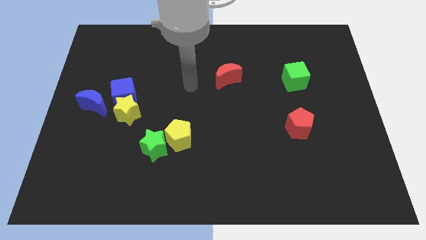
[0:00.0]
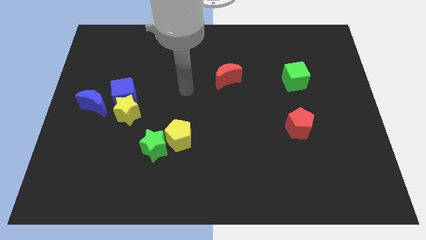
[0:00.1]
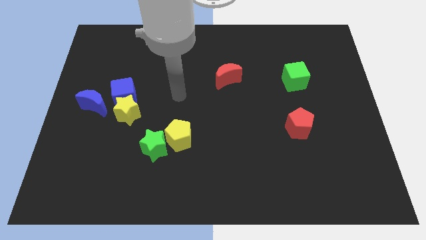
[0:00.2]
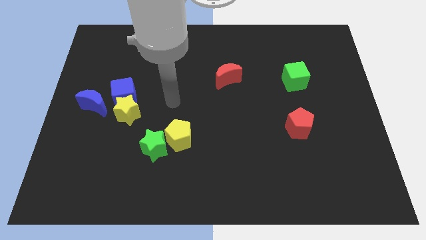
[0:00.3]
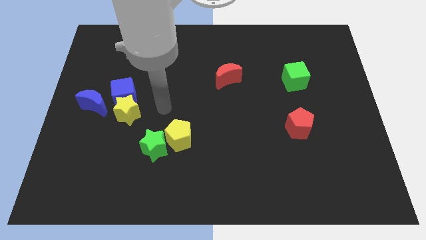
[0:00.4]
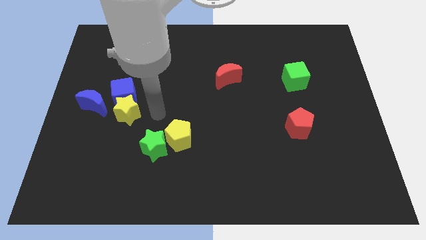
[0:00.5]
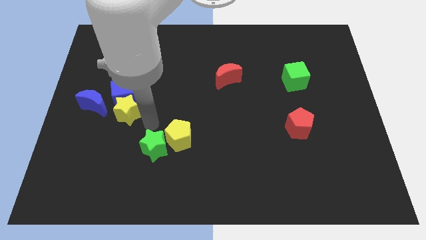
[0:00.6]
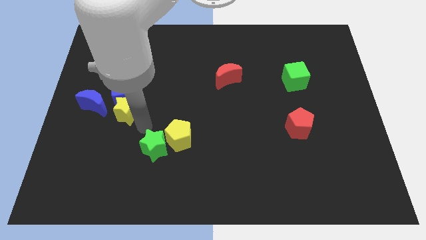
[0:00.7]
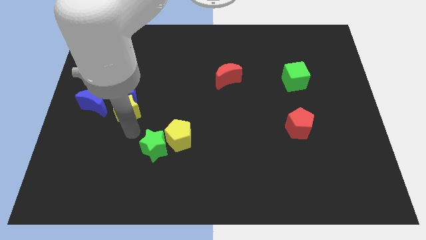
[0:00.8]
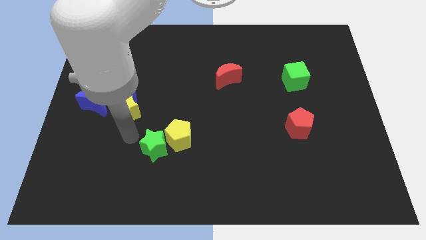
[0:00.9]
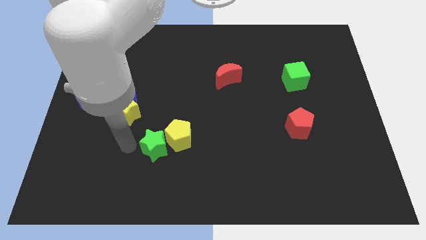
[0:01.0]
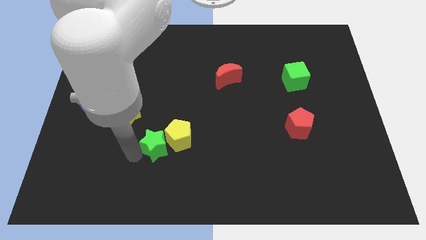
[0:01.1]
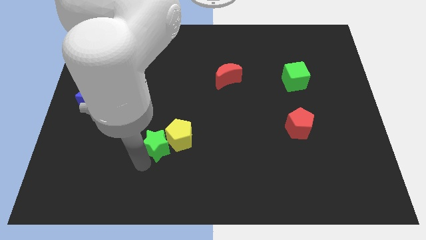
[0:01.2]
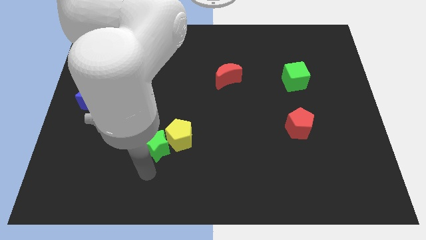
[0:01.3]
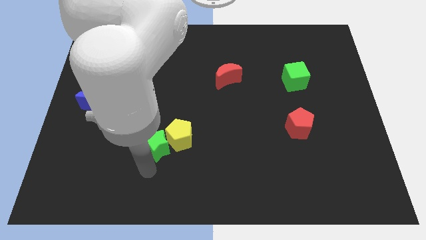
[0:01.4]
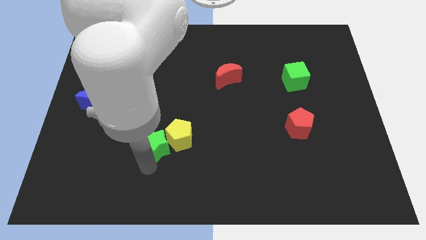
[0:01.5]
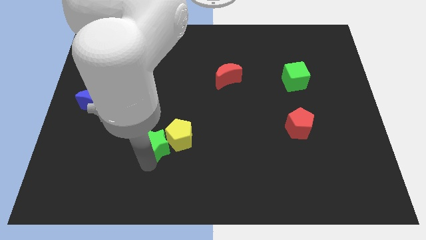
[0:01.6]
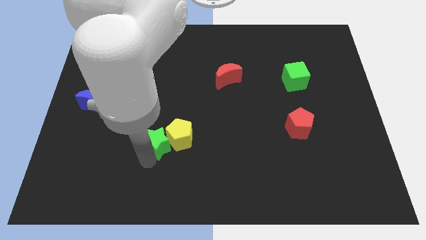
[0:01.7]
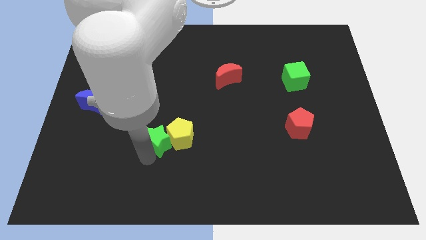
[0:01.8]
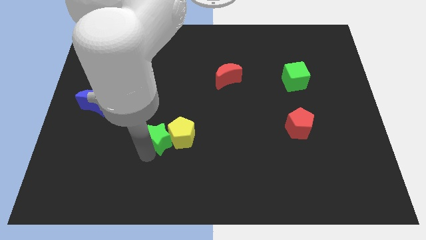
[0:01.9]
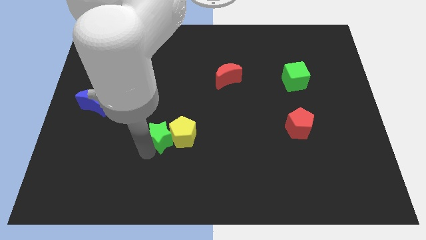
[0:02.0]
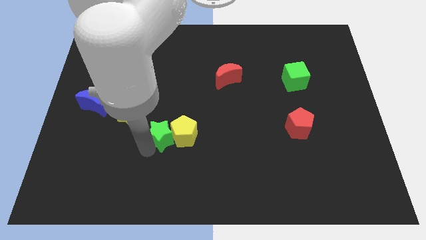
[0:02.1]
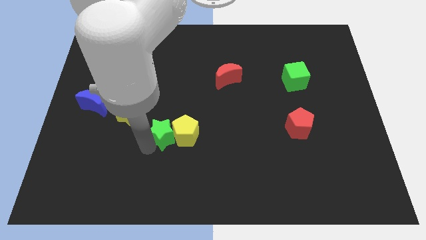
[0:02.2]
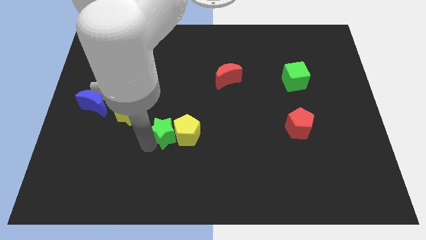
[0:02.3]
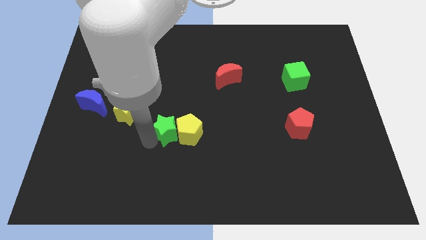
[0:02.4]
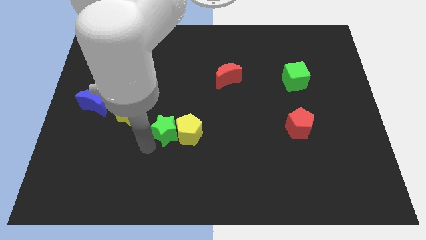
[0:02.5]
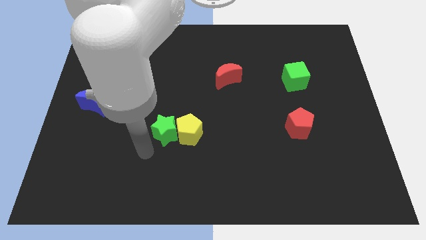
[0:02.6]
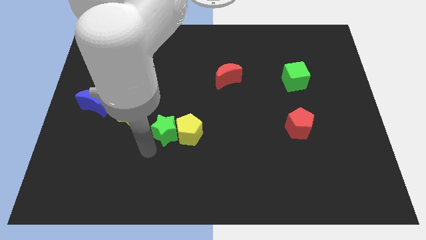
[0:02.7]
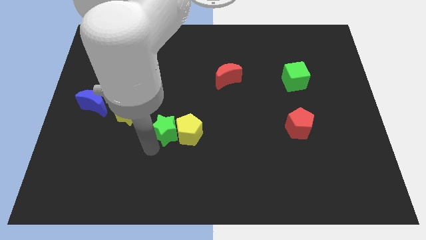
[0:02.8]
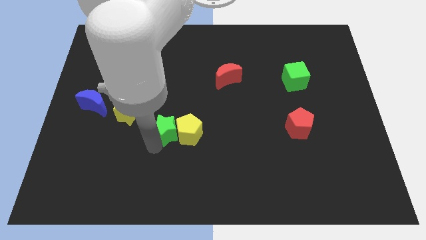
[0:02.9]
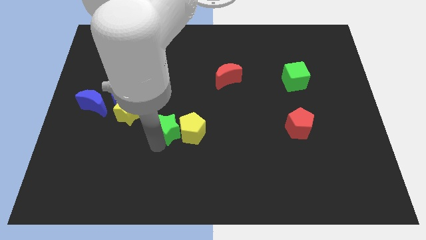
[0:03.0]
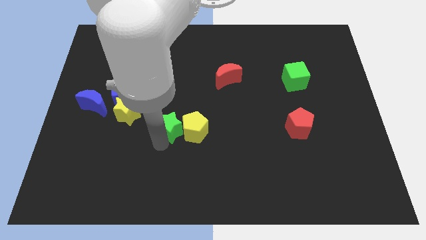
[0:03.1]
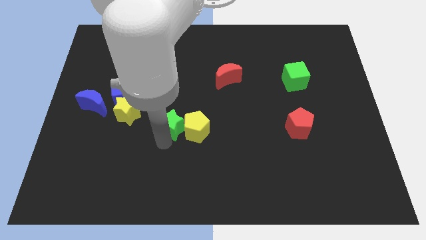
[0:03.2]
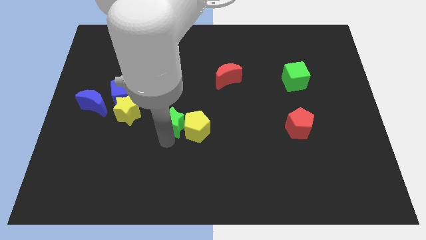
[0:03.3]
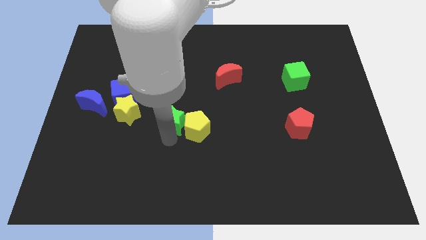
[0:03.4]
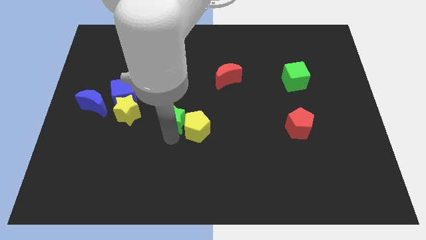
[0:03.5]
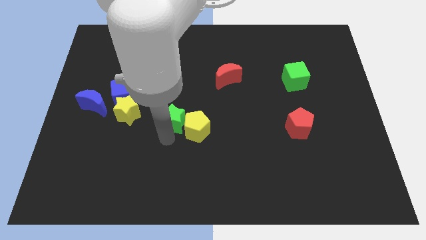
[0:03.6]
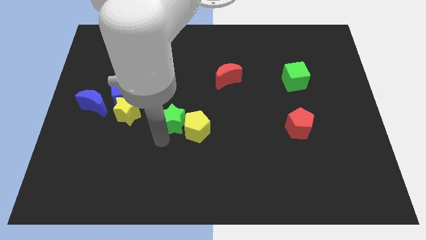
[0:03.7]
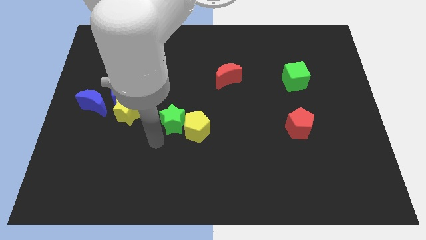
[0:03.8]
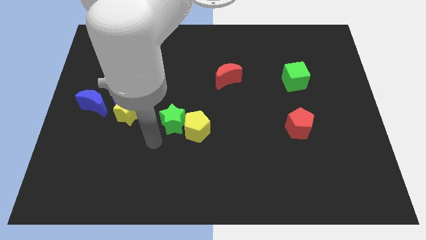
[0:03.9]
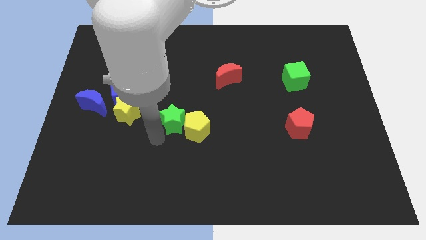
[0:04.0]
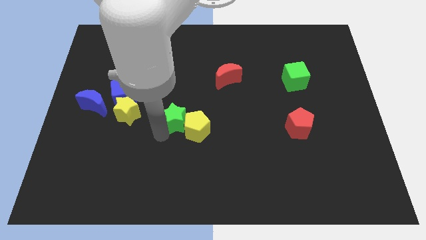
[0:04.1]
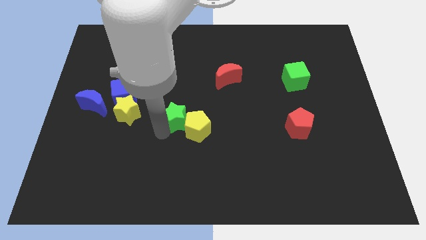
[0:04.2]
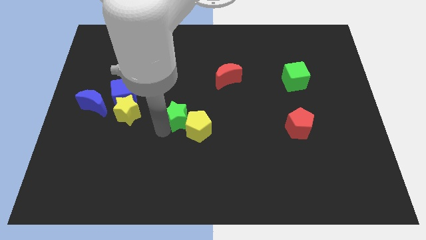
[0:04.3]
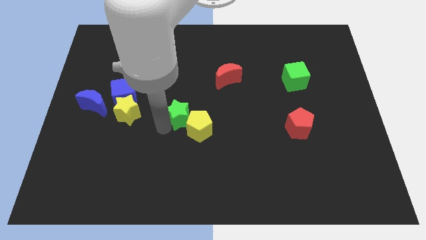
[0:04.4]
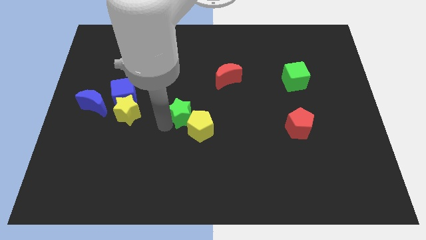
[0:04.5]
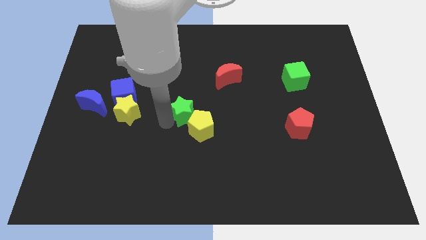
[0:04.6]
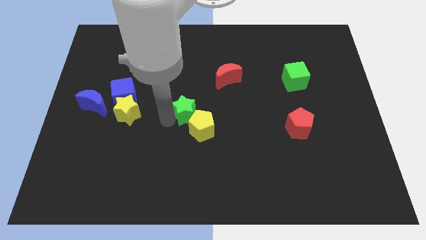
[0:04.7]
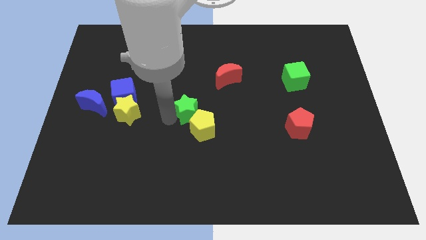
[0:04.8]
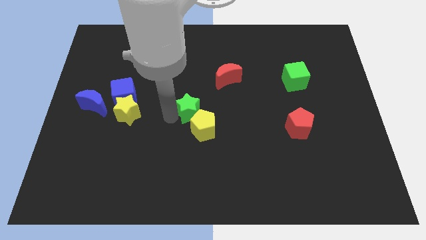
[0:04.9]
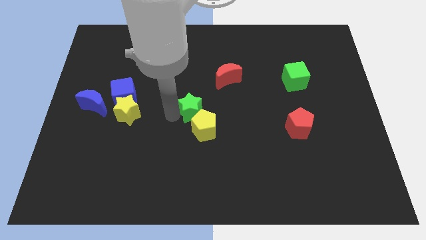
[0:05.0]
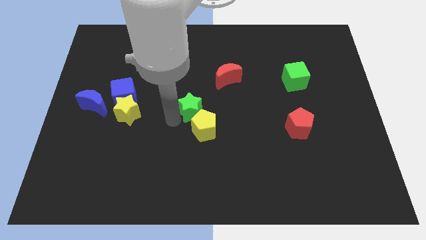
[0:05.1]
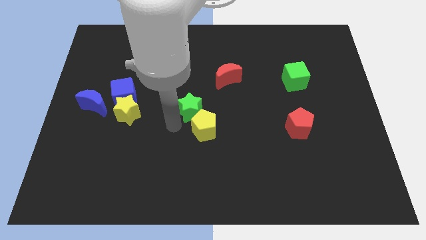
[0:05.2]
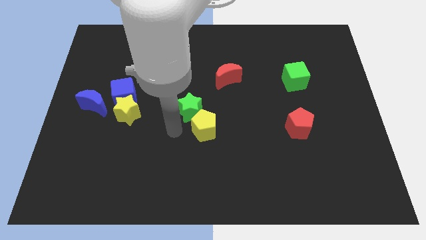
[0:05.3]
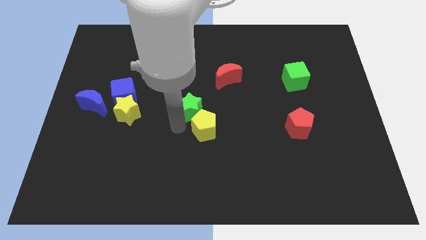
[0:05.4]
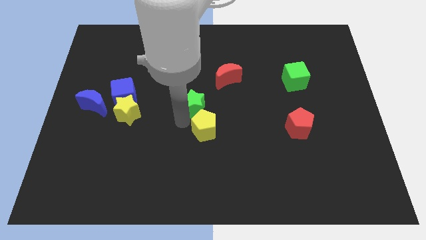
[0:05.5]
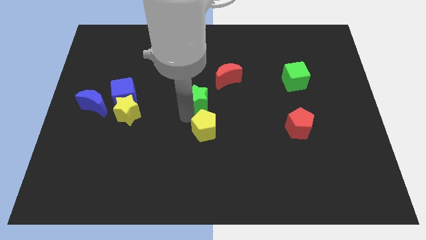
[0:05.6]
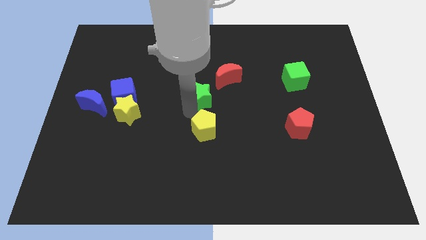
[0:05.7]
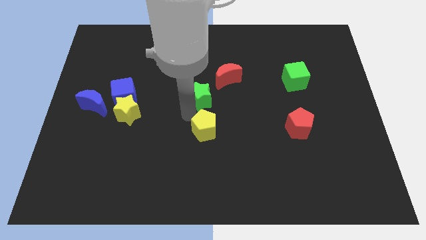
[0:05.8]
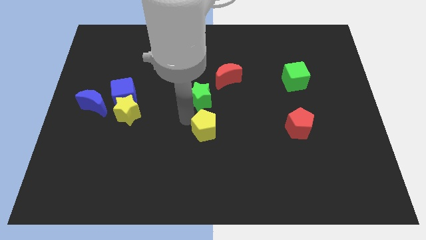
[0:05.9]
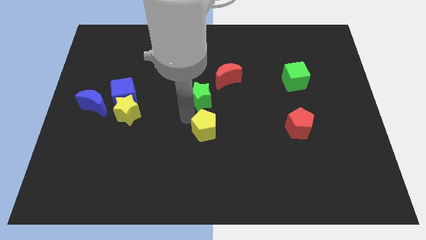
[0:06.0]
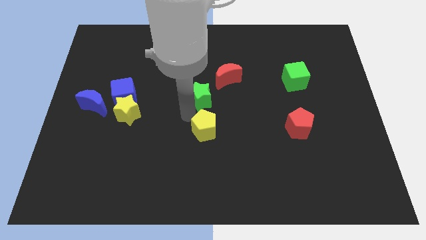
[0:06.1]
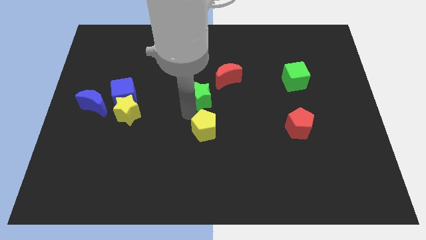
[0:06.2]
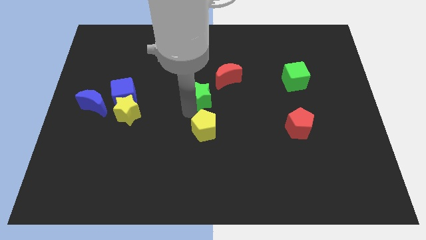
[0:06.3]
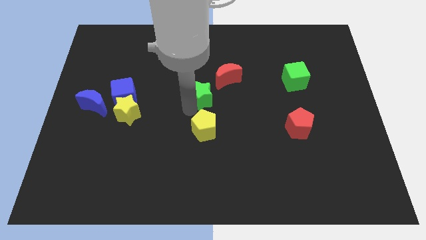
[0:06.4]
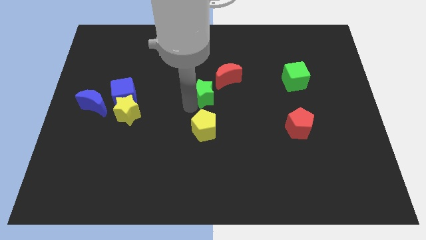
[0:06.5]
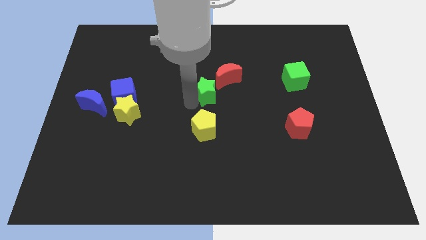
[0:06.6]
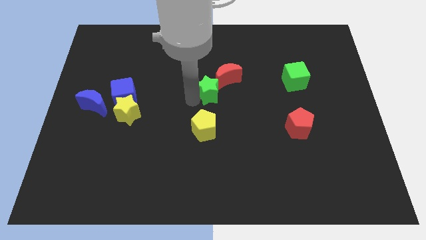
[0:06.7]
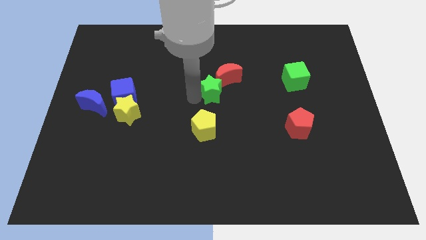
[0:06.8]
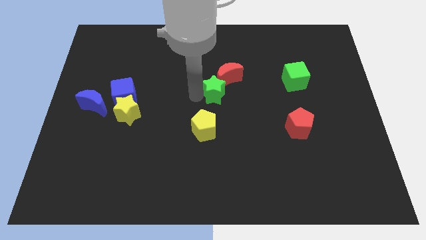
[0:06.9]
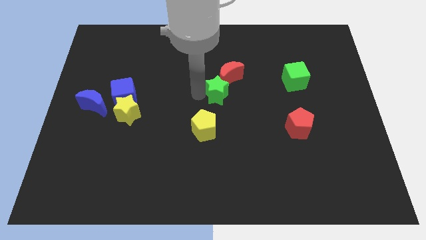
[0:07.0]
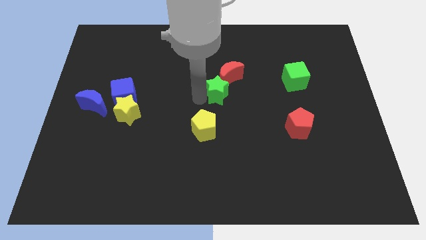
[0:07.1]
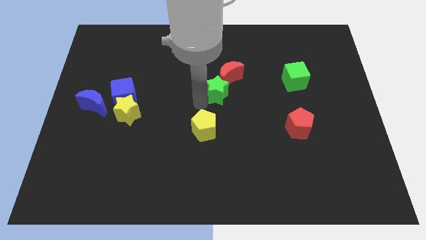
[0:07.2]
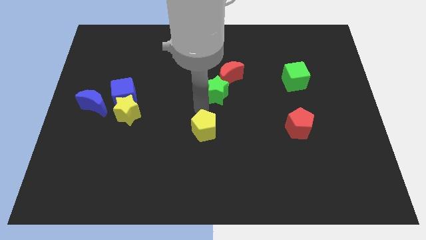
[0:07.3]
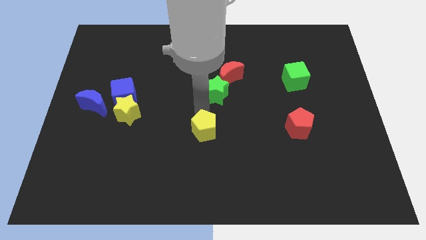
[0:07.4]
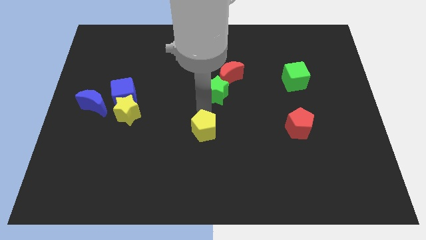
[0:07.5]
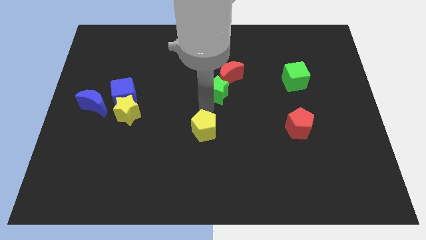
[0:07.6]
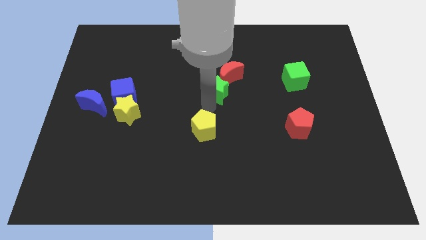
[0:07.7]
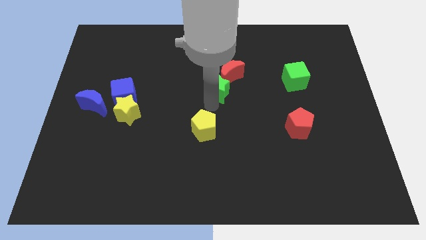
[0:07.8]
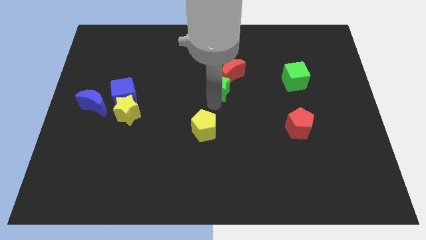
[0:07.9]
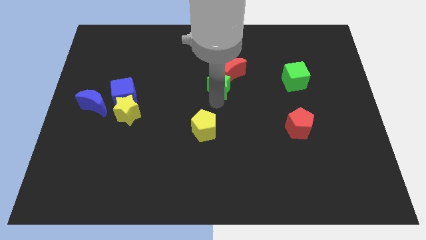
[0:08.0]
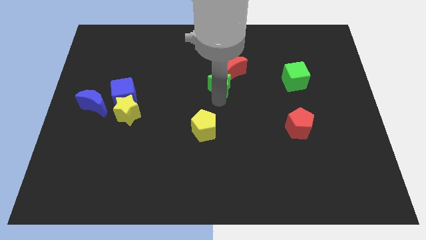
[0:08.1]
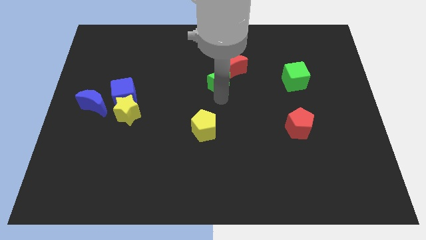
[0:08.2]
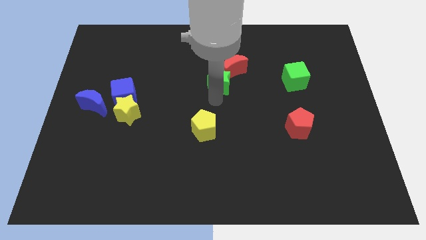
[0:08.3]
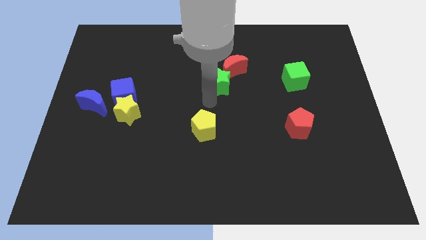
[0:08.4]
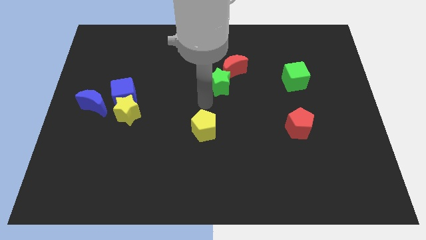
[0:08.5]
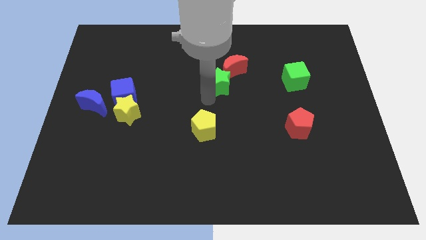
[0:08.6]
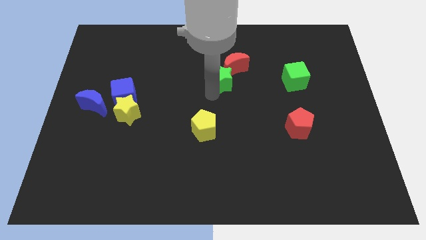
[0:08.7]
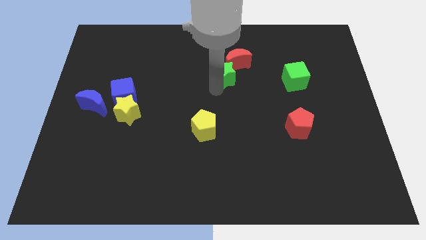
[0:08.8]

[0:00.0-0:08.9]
put the green star next to the red moon
